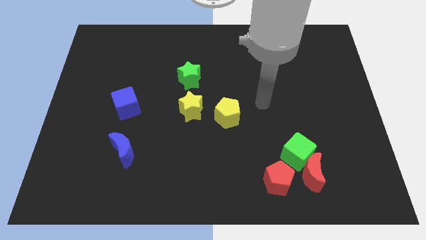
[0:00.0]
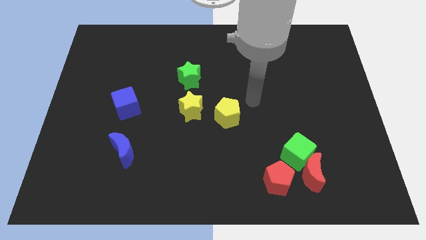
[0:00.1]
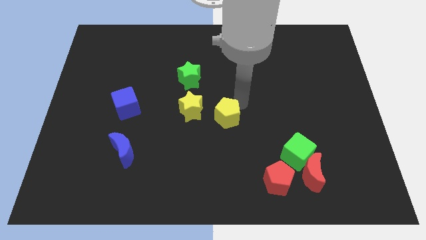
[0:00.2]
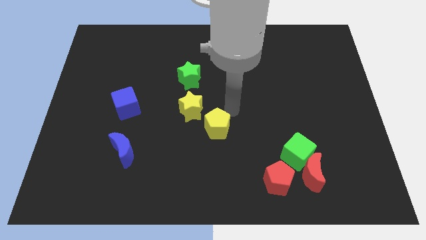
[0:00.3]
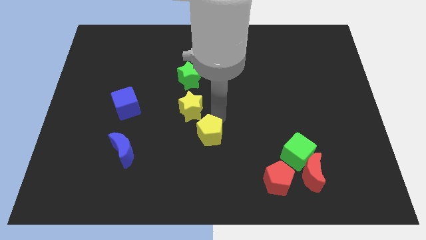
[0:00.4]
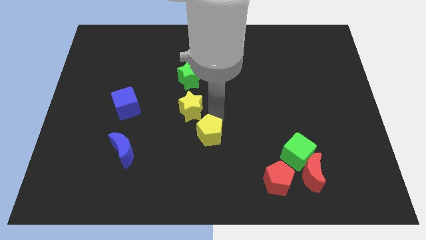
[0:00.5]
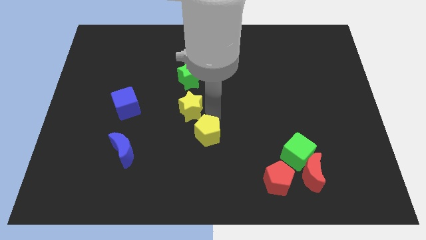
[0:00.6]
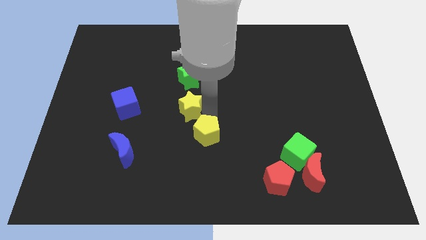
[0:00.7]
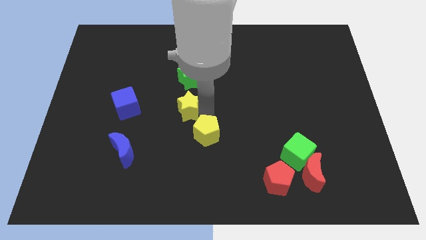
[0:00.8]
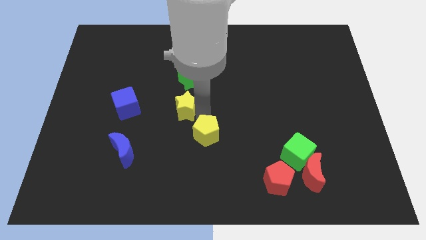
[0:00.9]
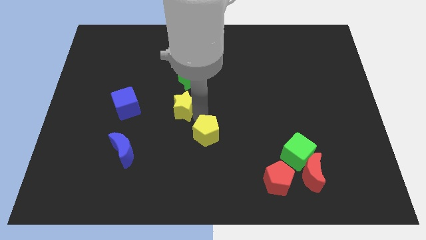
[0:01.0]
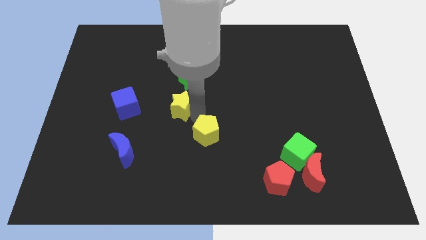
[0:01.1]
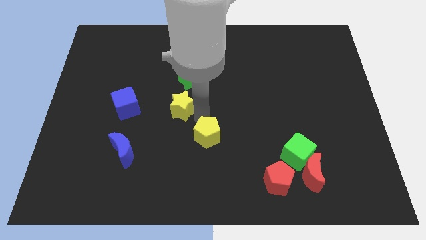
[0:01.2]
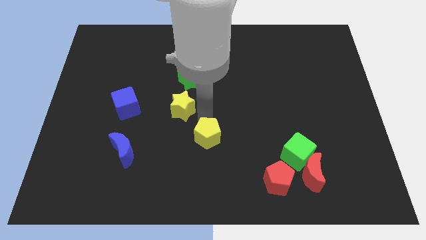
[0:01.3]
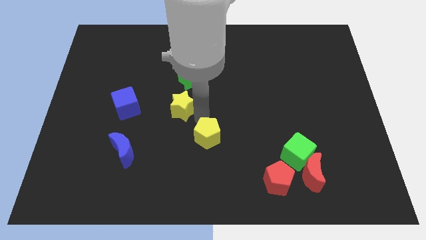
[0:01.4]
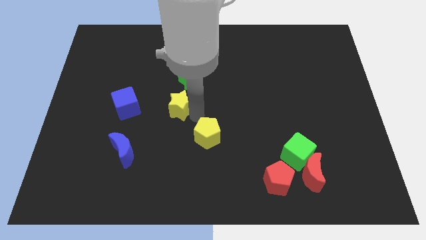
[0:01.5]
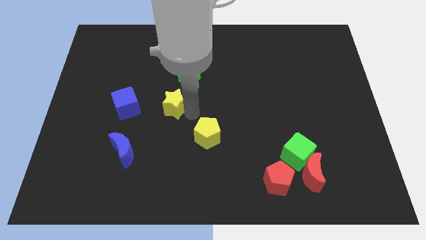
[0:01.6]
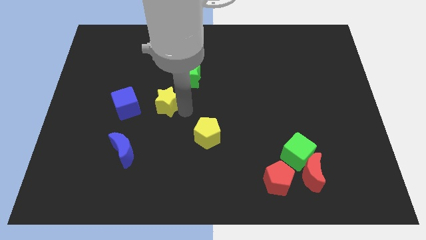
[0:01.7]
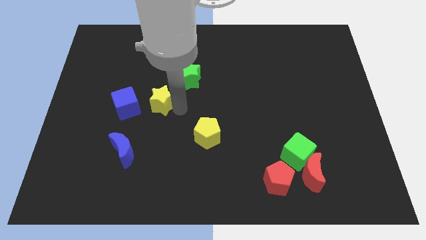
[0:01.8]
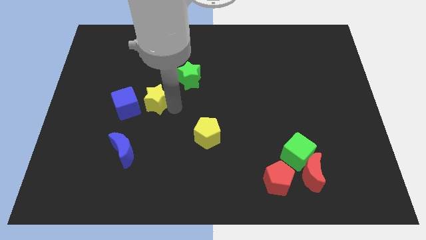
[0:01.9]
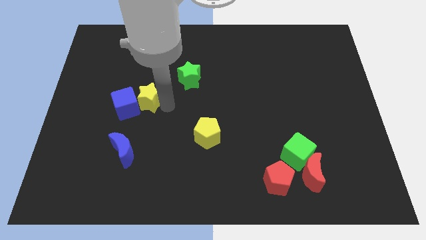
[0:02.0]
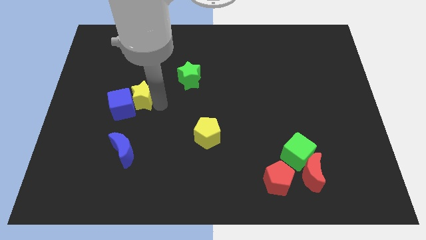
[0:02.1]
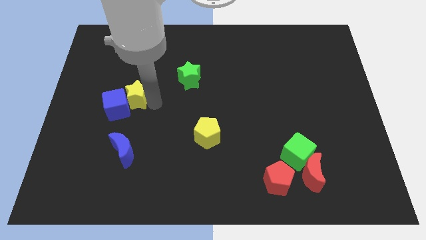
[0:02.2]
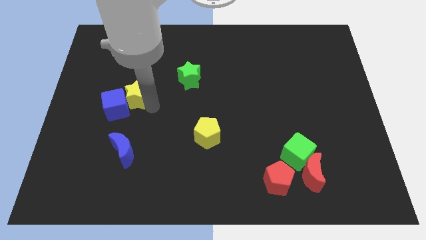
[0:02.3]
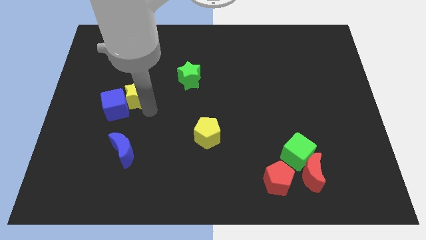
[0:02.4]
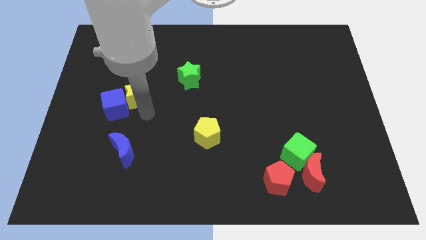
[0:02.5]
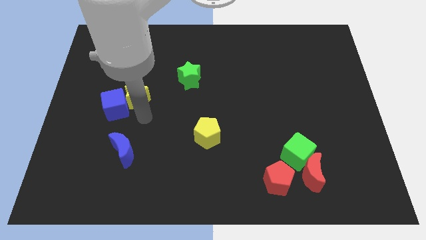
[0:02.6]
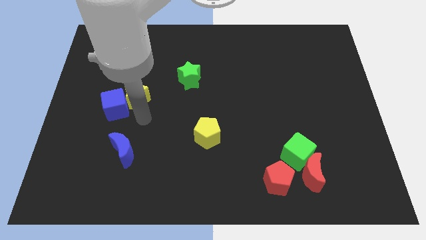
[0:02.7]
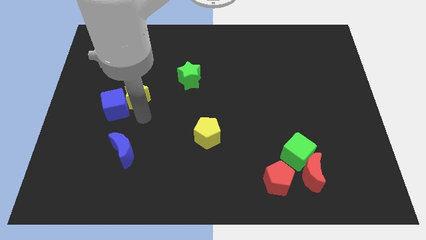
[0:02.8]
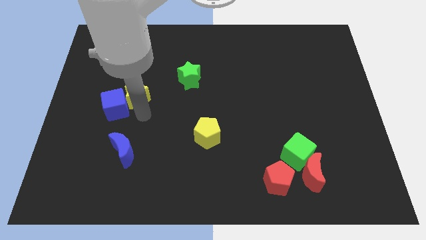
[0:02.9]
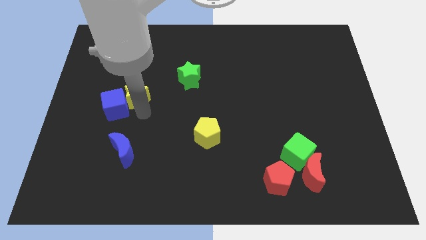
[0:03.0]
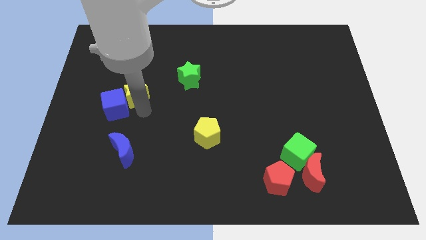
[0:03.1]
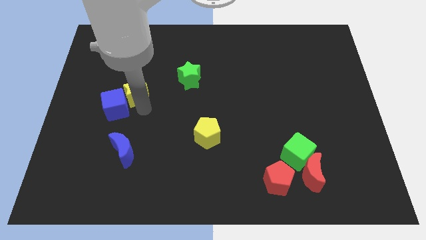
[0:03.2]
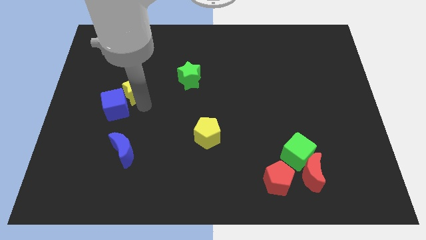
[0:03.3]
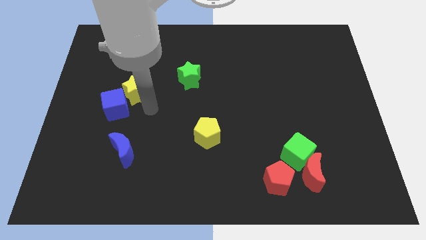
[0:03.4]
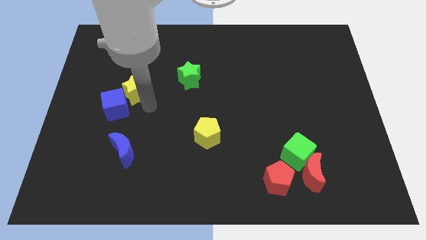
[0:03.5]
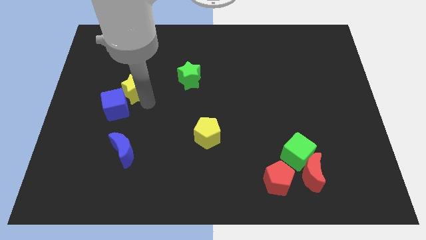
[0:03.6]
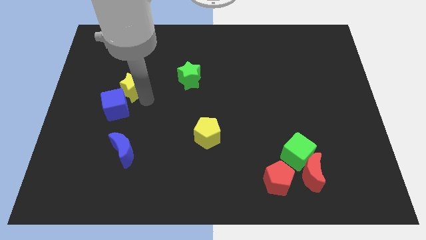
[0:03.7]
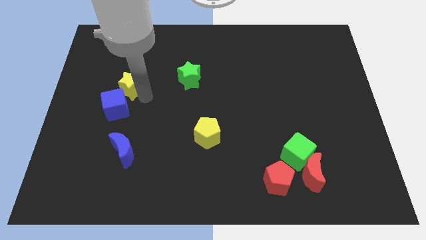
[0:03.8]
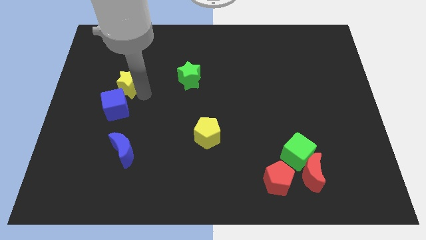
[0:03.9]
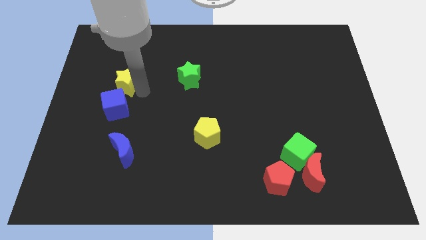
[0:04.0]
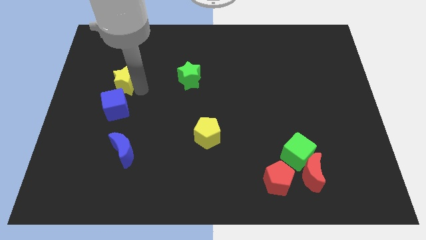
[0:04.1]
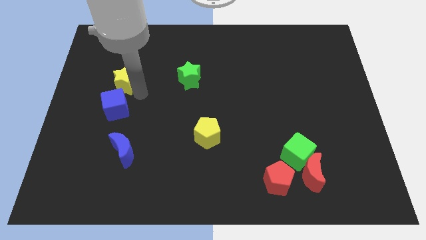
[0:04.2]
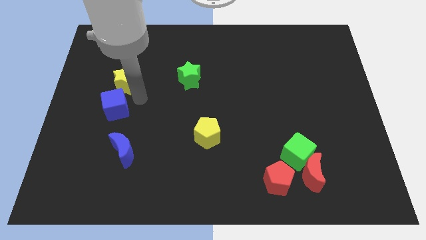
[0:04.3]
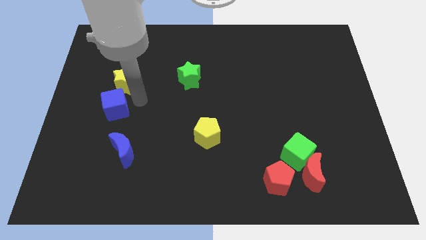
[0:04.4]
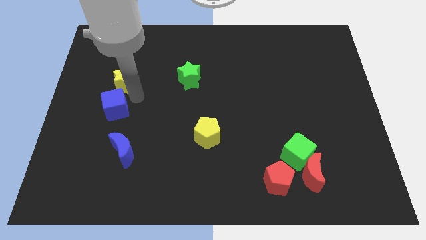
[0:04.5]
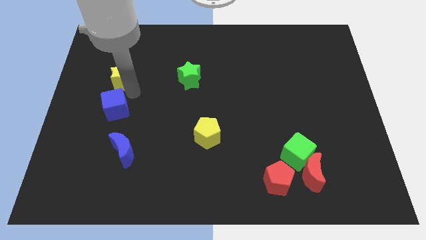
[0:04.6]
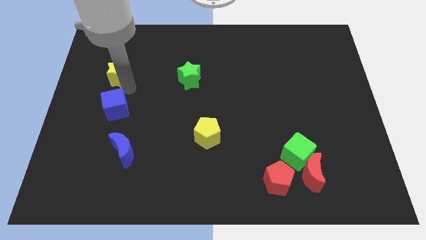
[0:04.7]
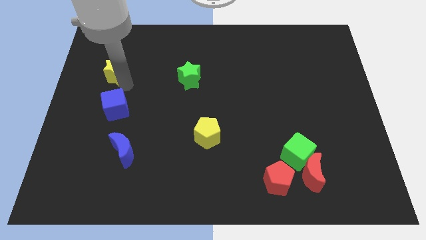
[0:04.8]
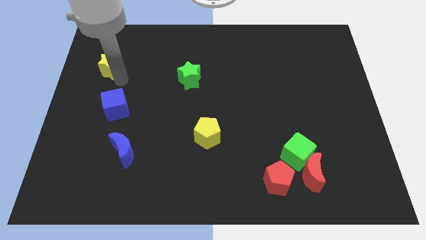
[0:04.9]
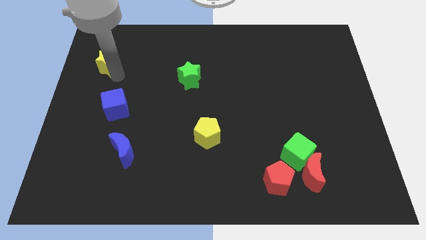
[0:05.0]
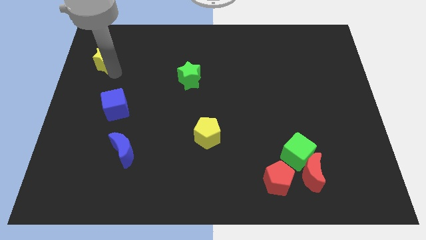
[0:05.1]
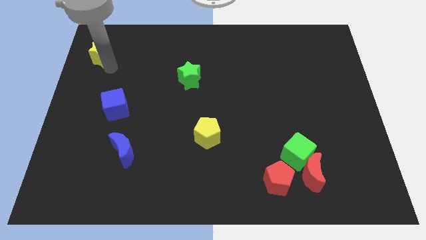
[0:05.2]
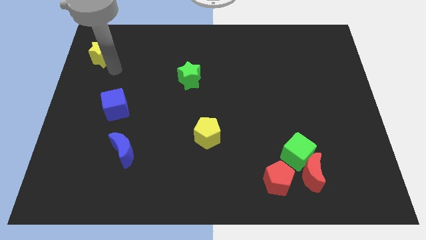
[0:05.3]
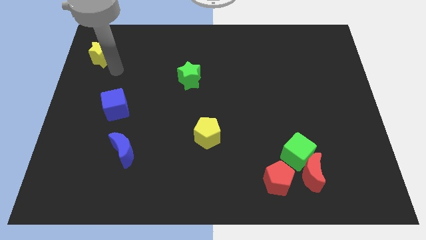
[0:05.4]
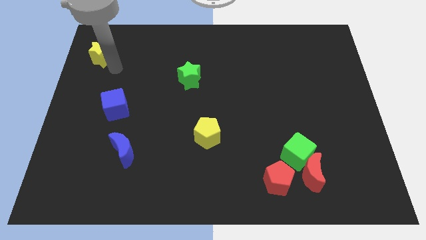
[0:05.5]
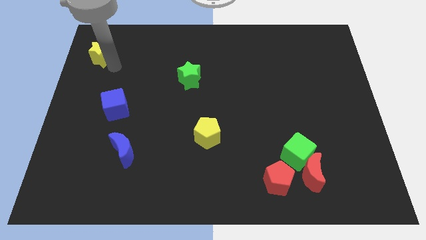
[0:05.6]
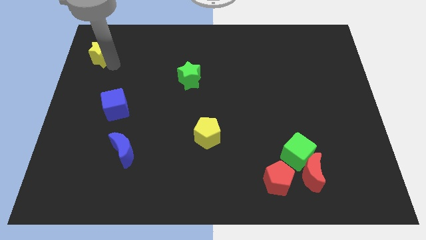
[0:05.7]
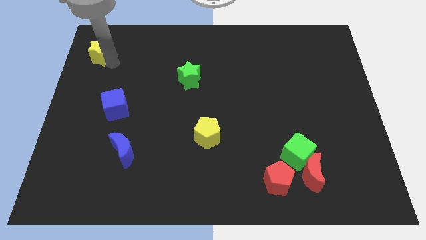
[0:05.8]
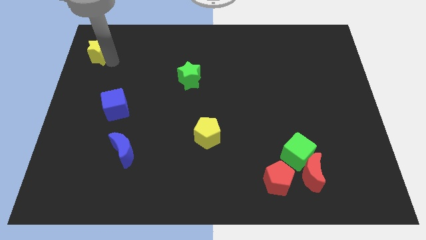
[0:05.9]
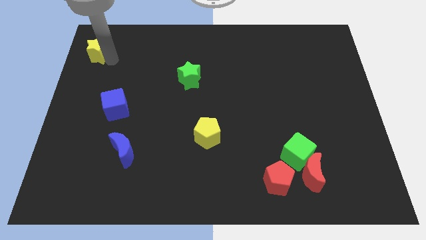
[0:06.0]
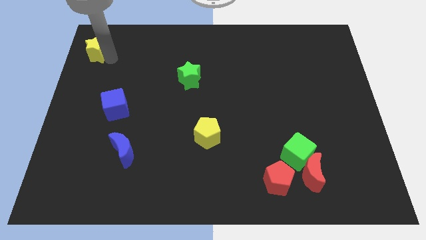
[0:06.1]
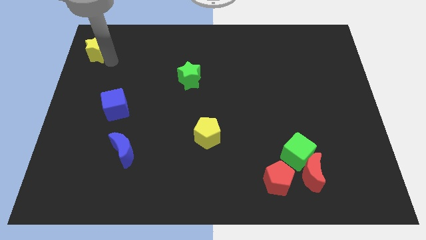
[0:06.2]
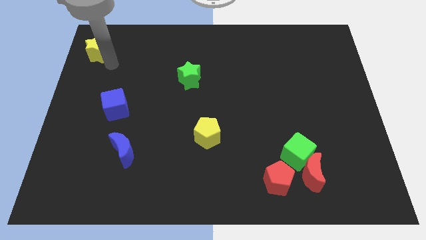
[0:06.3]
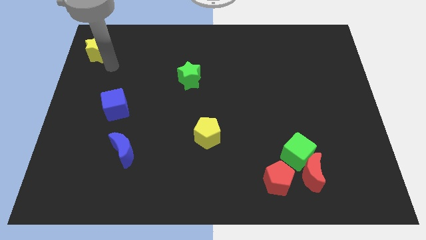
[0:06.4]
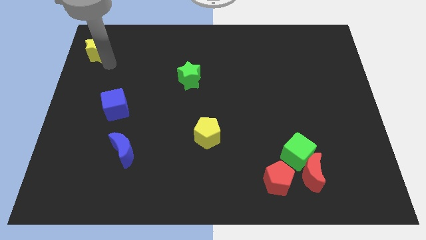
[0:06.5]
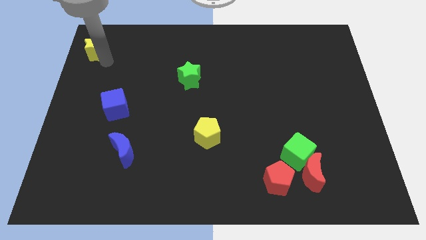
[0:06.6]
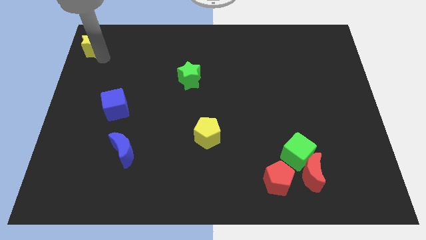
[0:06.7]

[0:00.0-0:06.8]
put the yellow star to the upper left corner

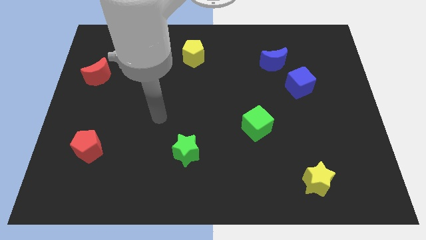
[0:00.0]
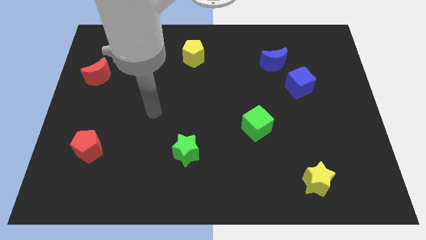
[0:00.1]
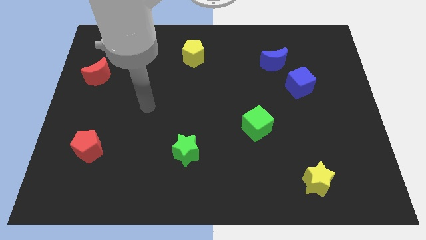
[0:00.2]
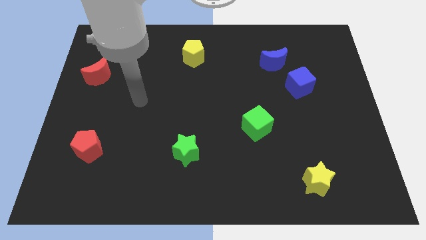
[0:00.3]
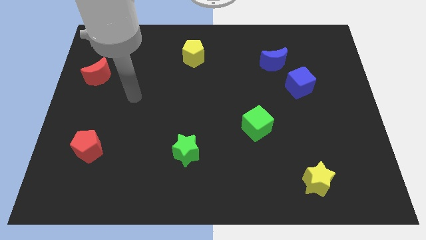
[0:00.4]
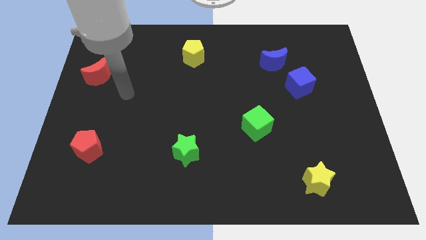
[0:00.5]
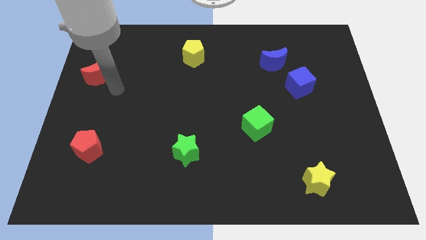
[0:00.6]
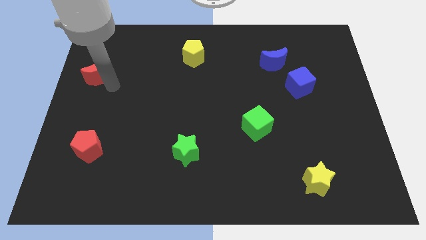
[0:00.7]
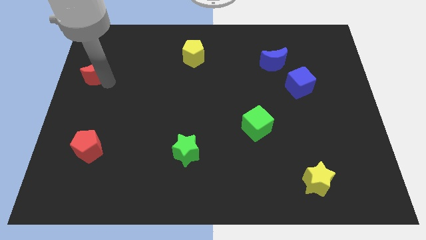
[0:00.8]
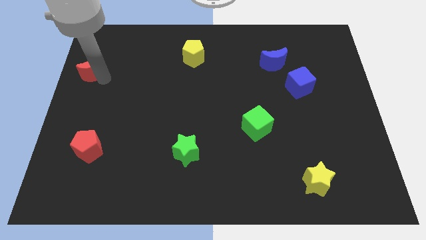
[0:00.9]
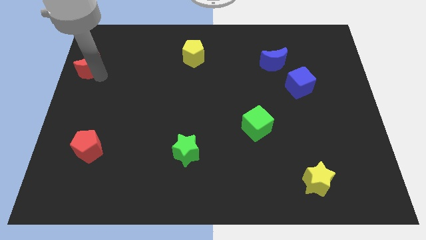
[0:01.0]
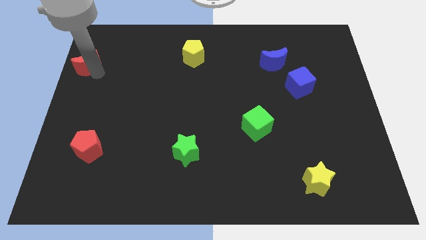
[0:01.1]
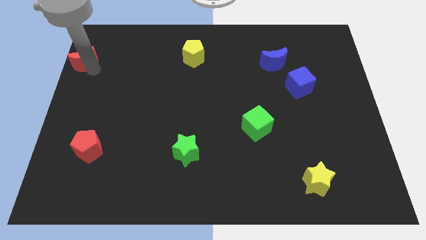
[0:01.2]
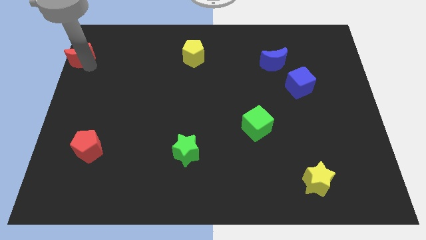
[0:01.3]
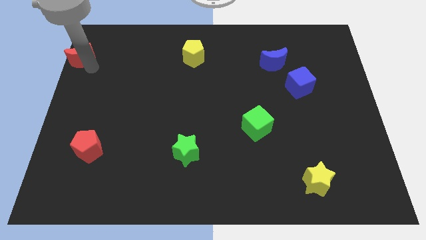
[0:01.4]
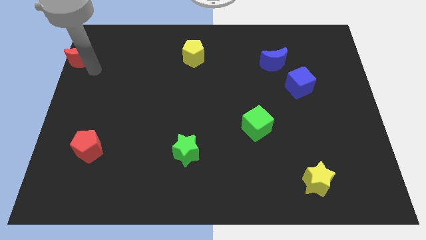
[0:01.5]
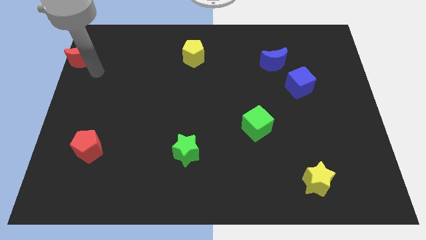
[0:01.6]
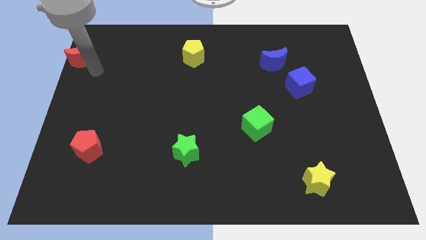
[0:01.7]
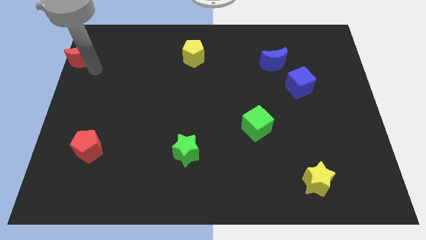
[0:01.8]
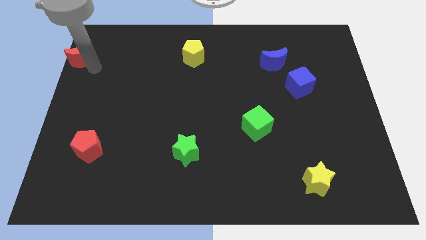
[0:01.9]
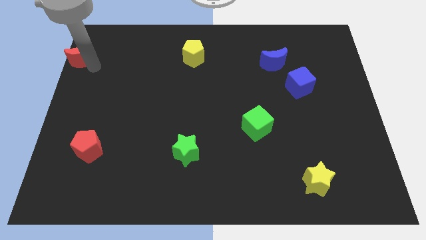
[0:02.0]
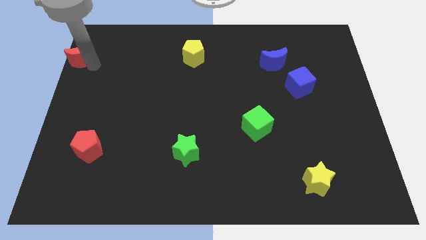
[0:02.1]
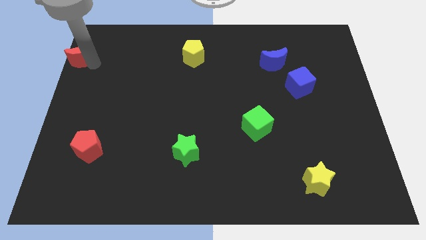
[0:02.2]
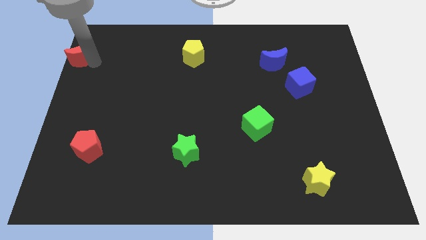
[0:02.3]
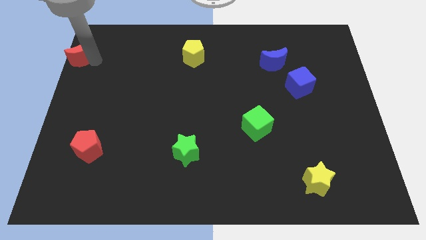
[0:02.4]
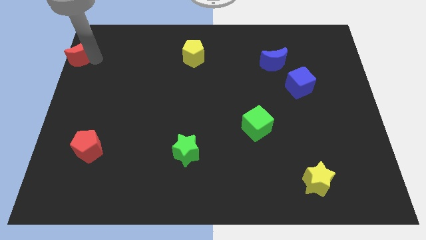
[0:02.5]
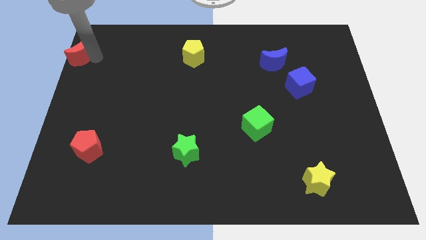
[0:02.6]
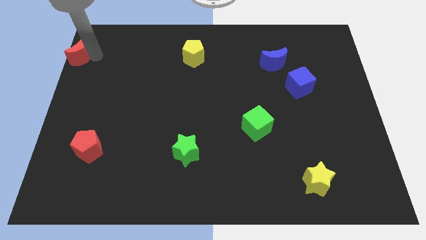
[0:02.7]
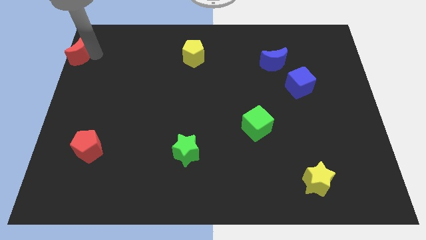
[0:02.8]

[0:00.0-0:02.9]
push the red moon to the top left corner
